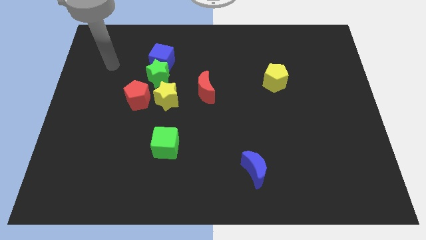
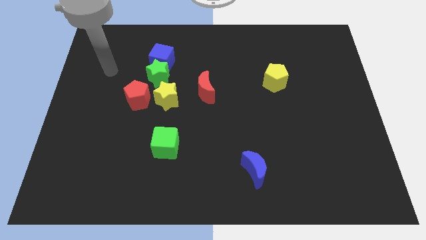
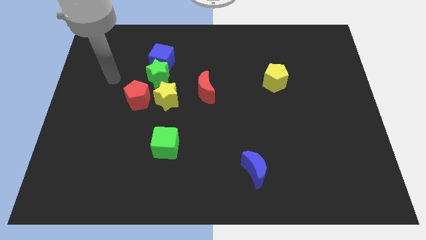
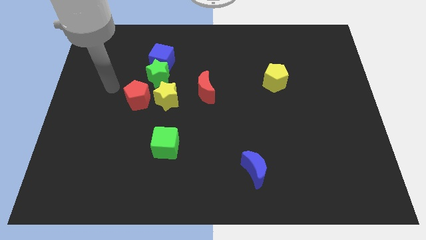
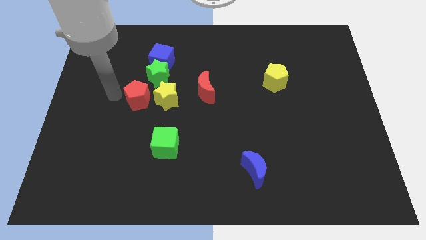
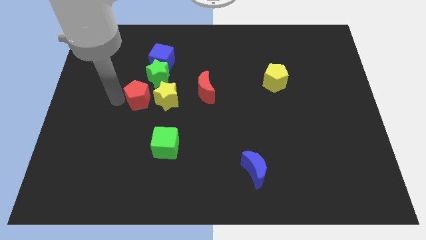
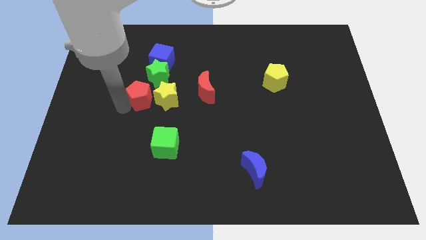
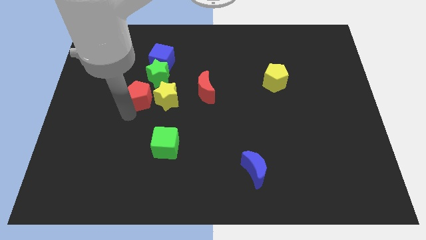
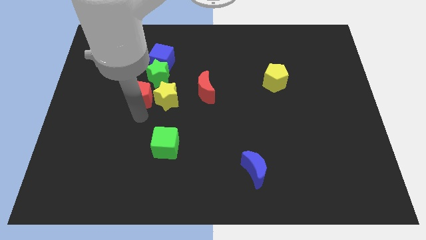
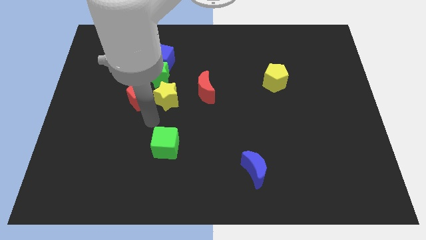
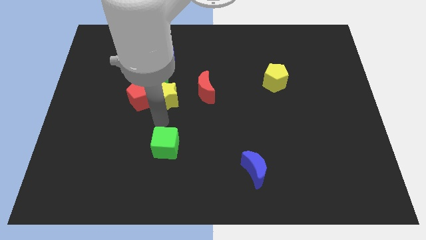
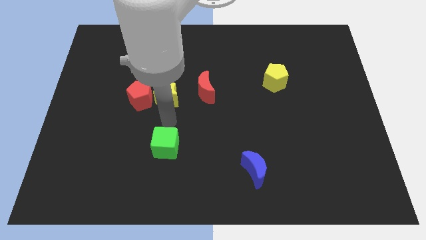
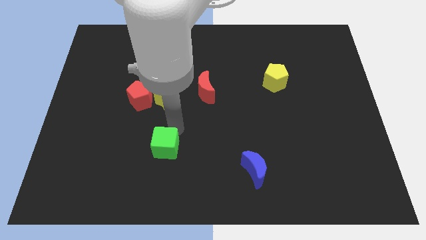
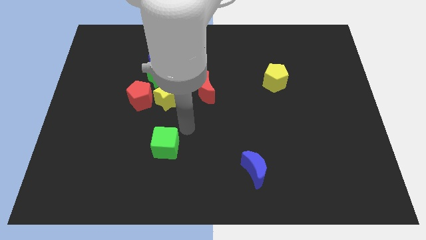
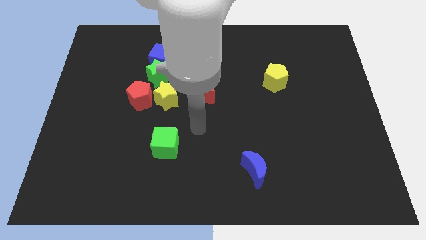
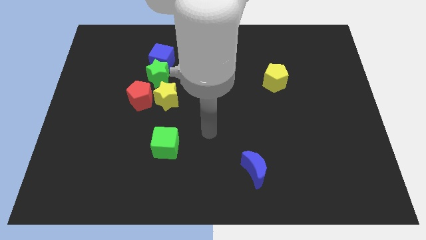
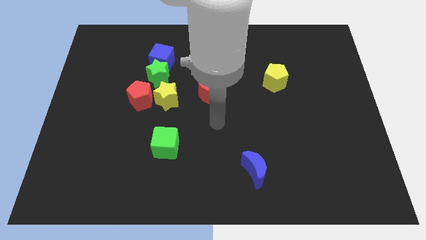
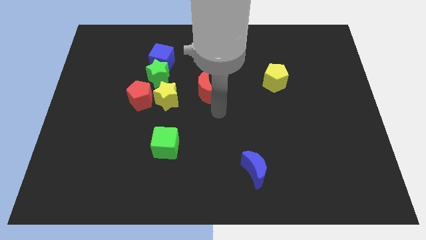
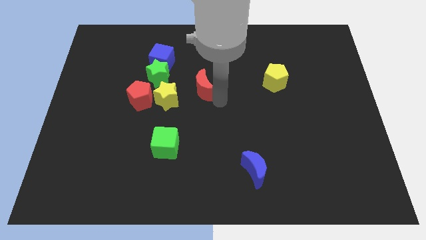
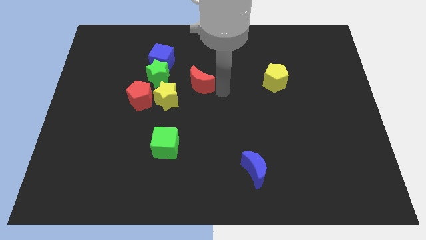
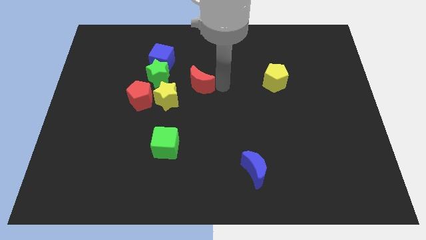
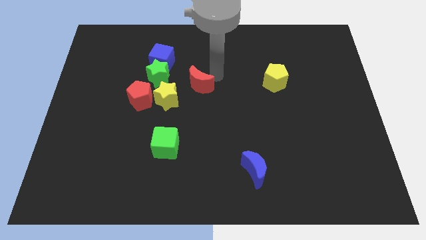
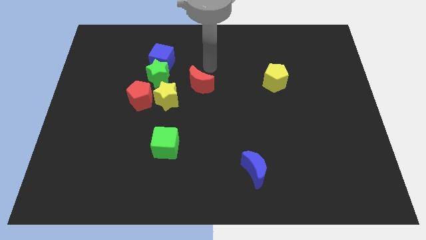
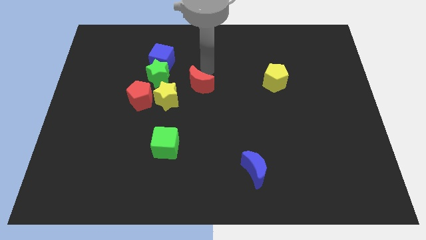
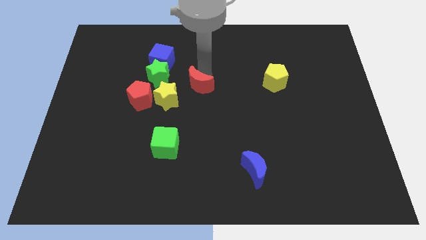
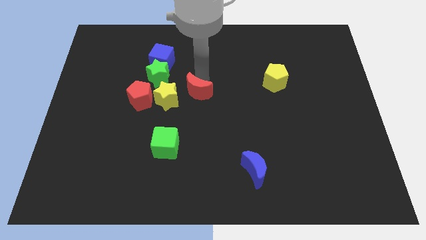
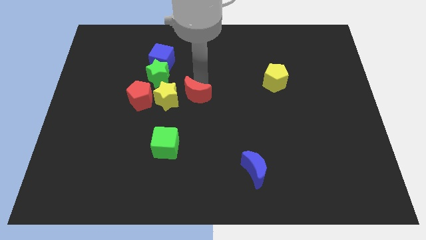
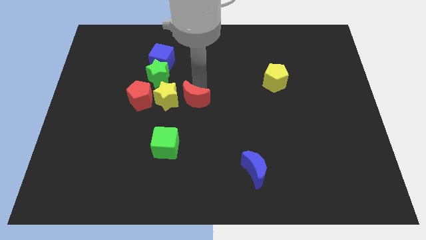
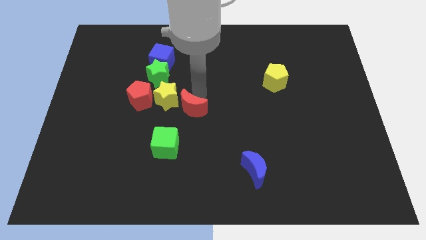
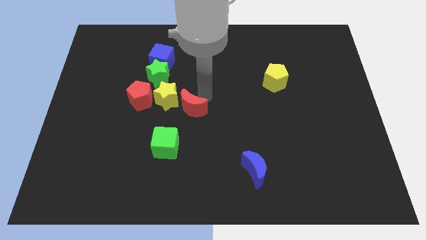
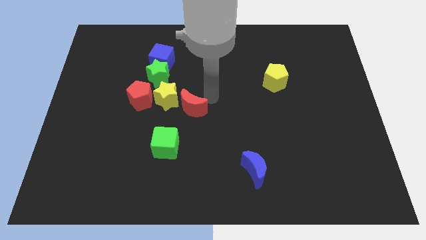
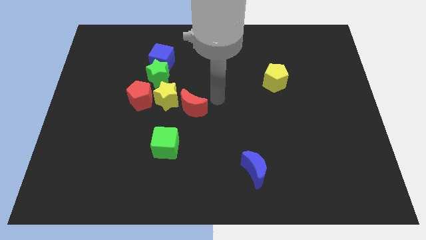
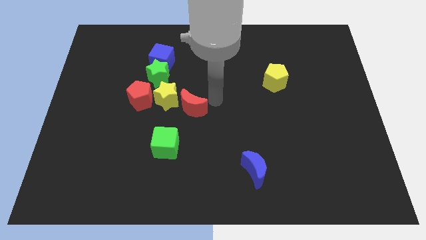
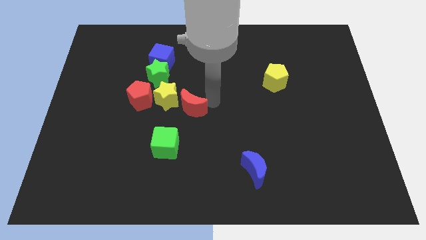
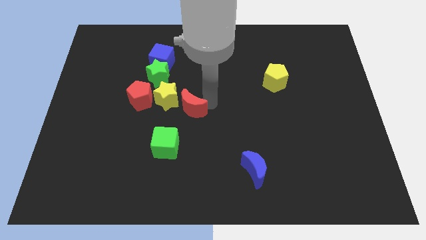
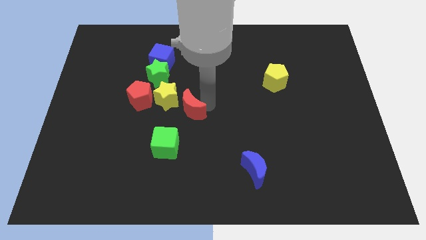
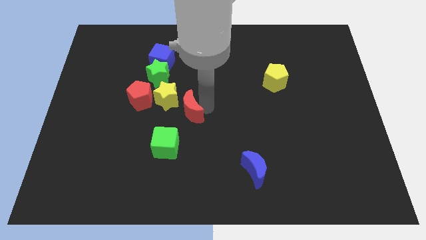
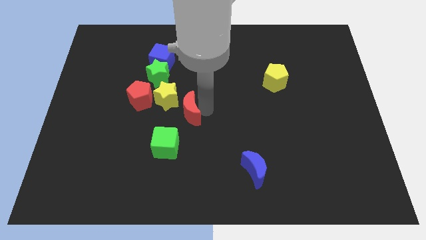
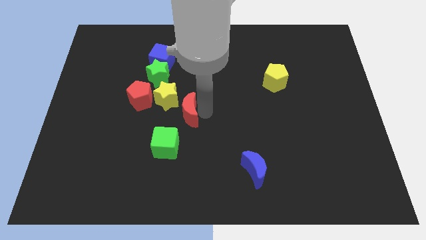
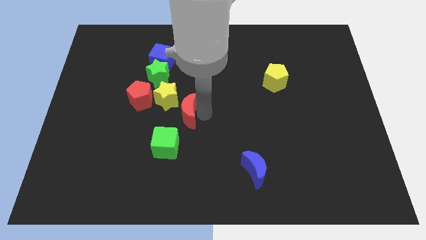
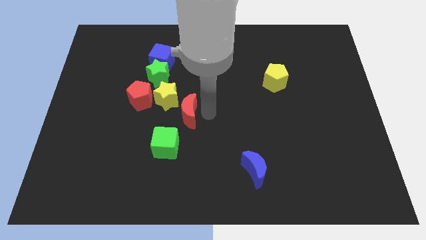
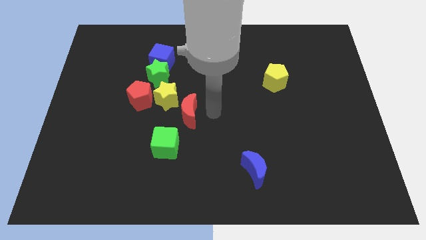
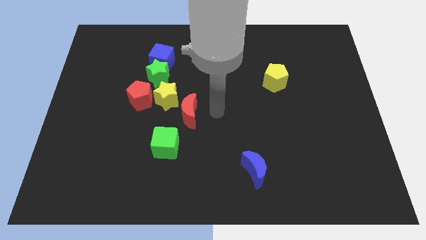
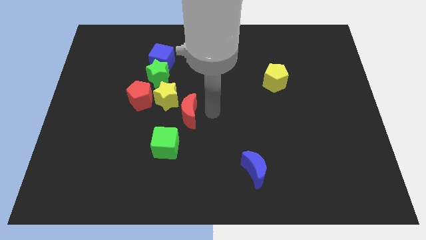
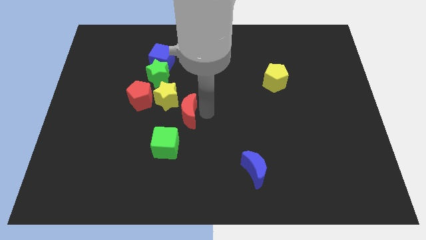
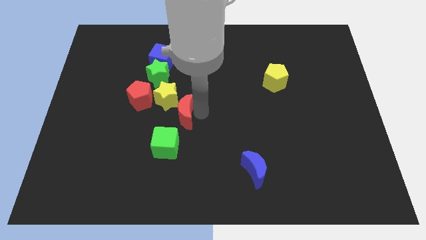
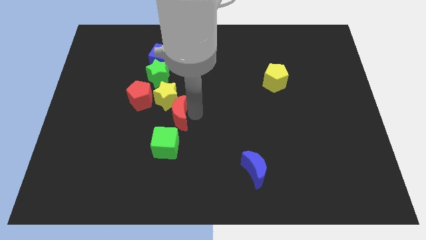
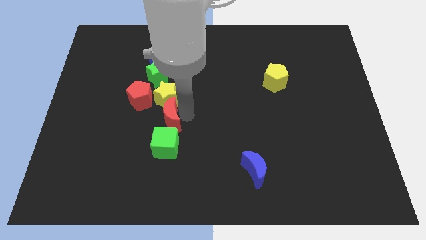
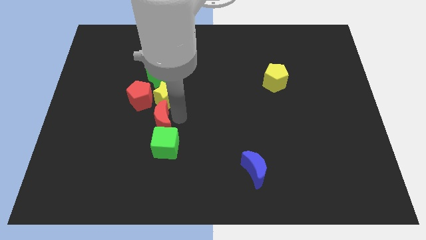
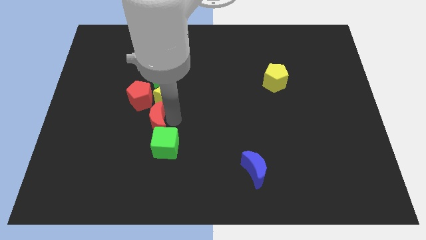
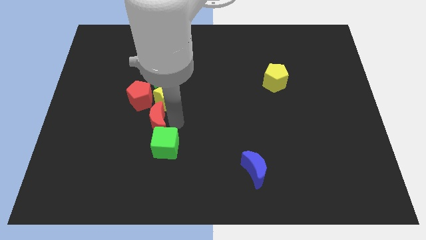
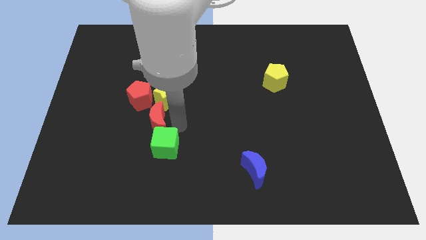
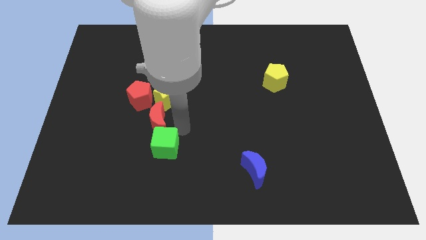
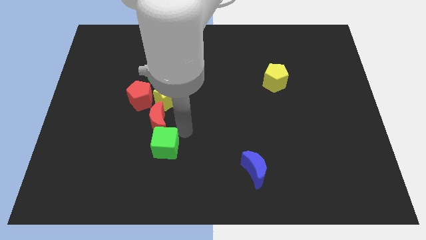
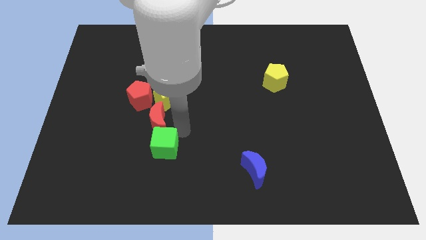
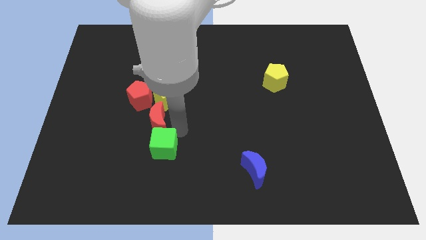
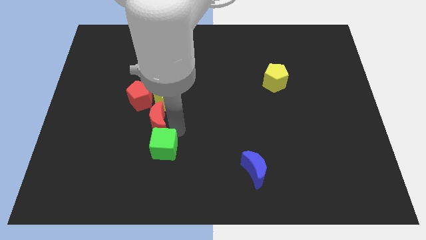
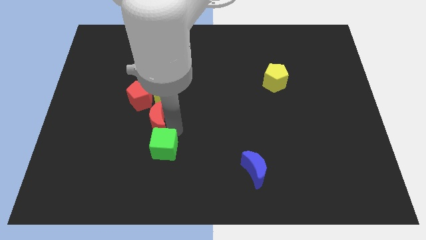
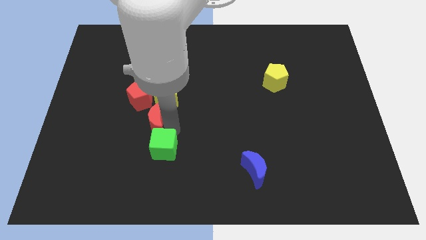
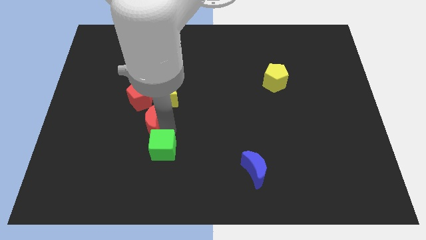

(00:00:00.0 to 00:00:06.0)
slightly move the red moon left

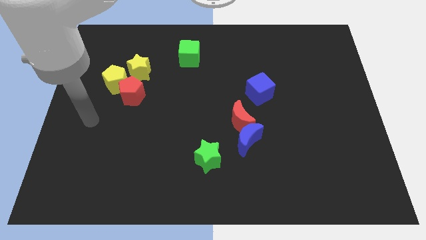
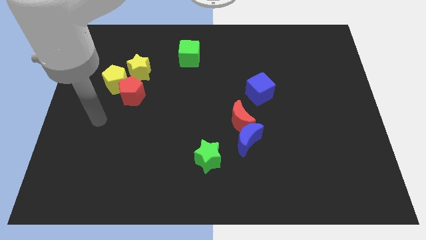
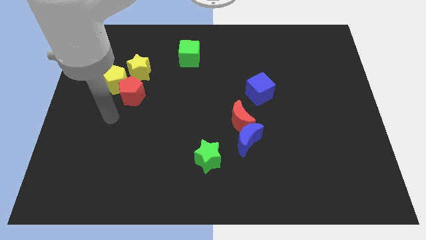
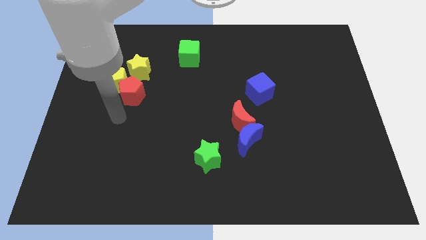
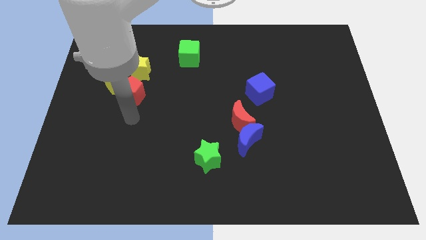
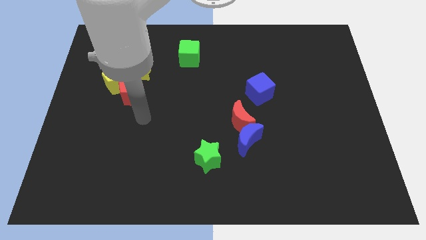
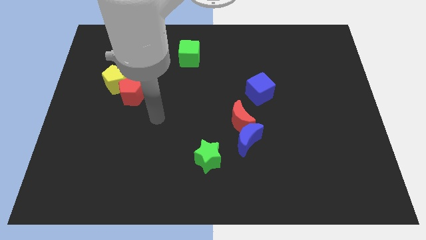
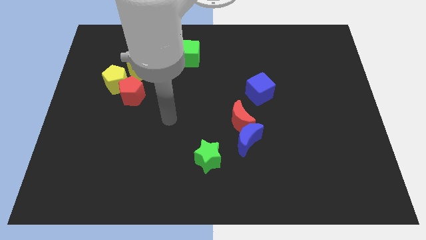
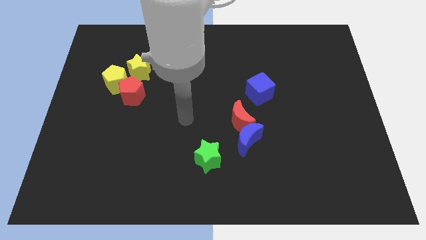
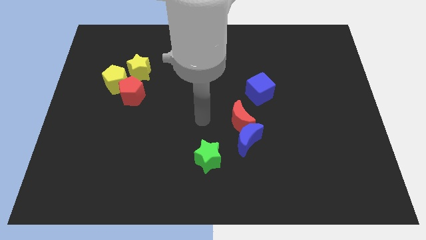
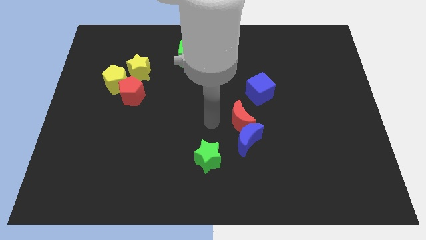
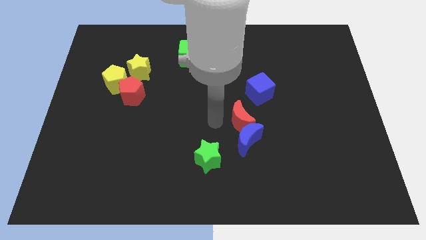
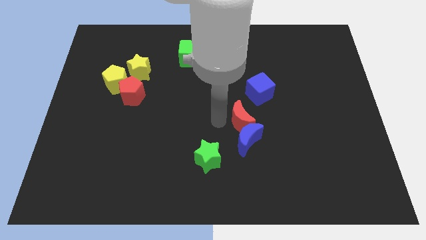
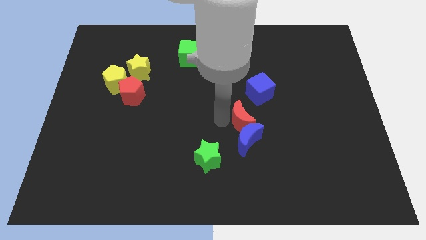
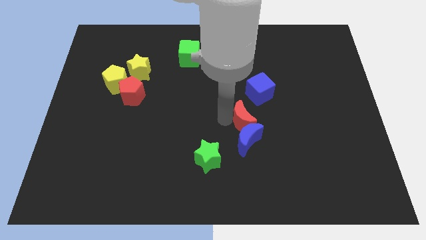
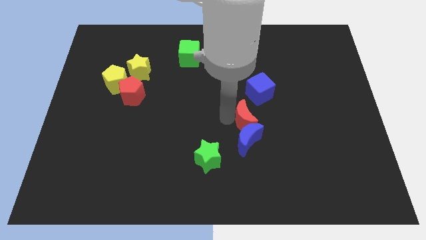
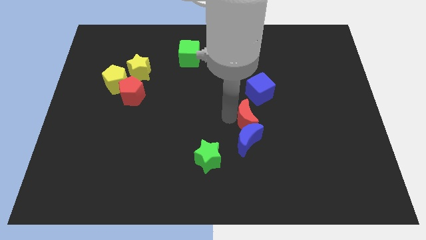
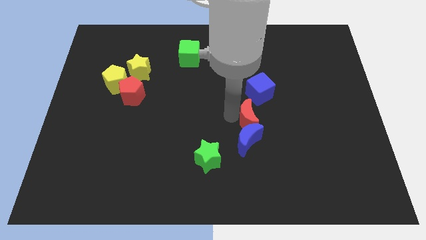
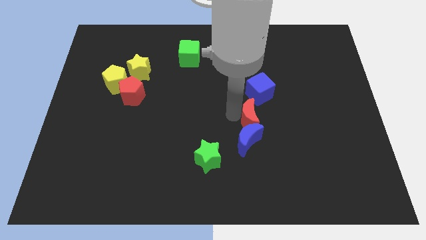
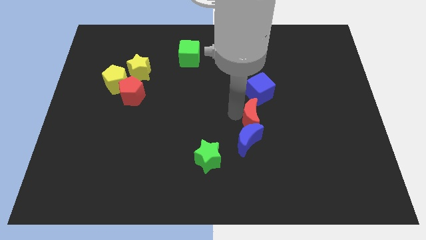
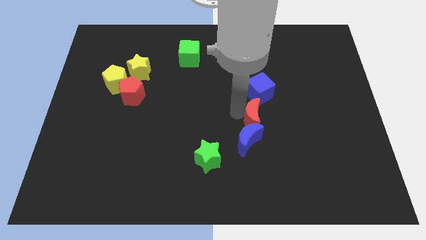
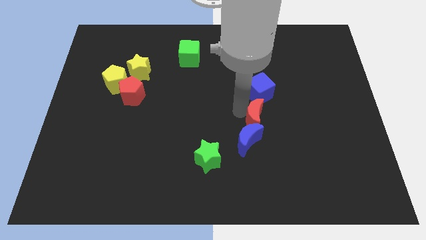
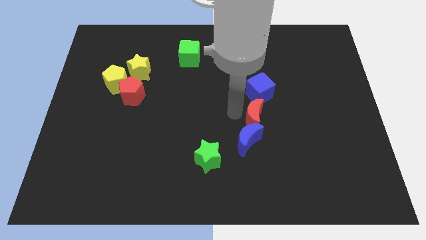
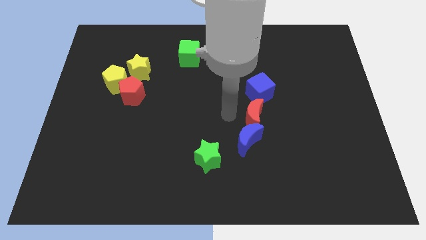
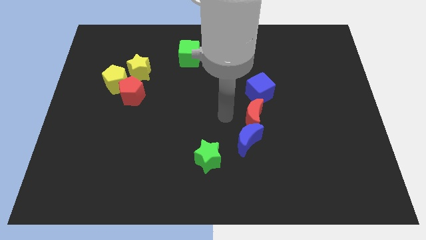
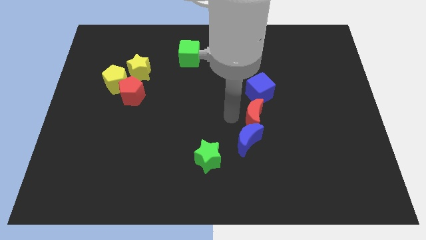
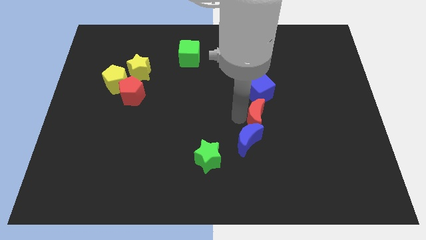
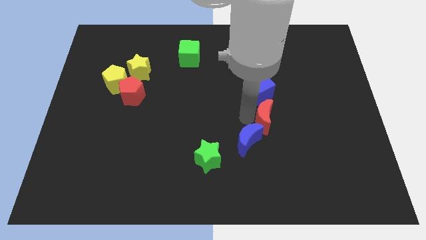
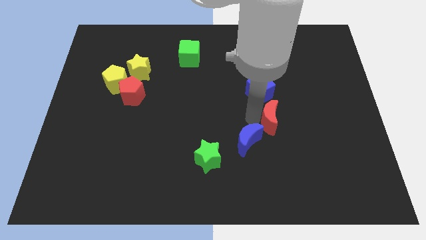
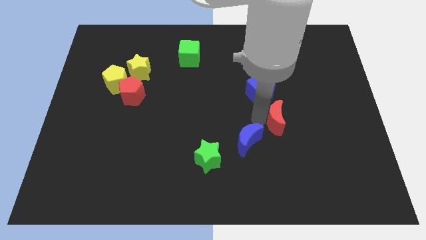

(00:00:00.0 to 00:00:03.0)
move the red moon a bit to the right
